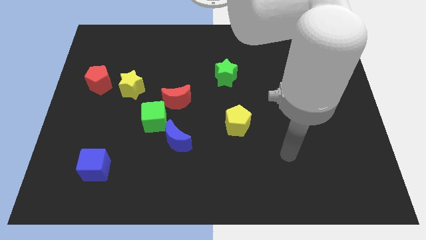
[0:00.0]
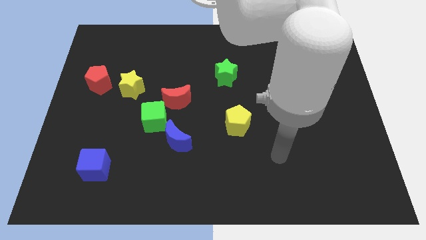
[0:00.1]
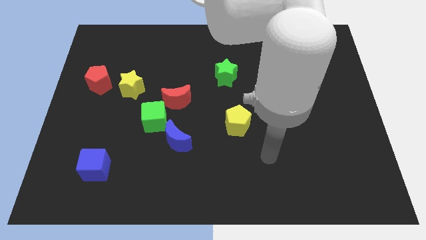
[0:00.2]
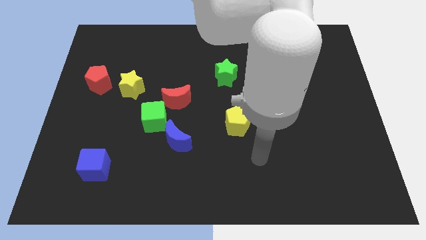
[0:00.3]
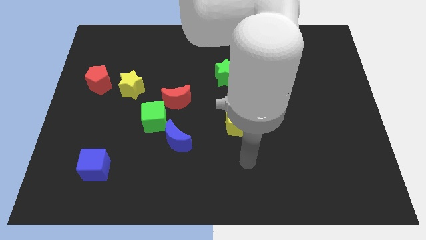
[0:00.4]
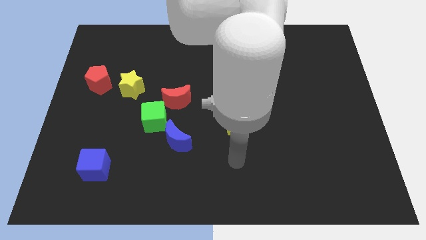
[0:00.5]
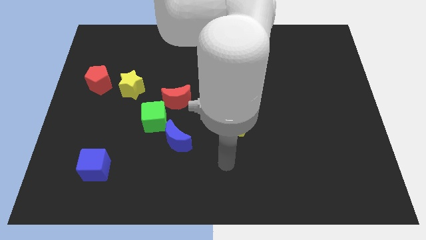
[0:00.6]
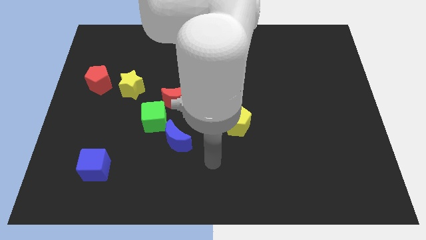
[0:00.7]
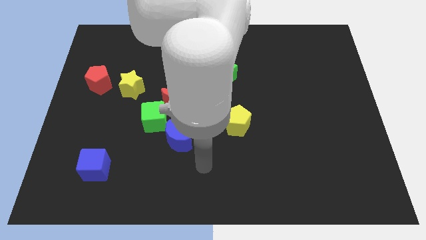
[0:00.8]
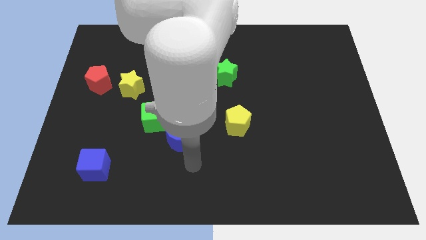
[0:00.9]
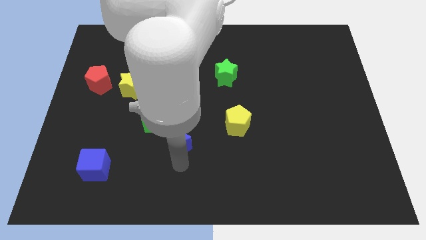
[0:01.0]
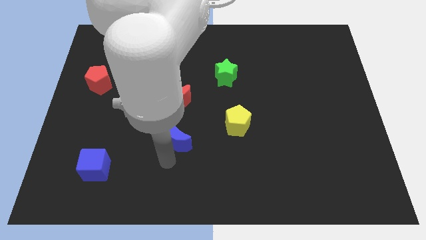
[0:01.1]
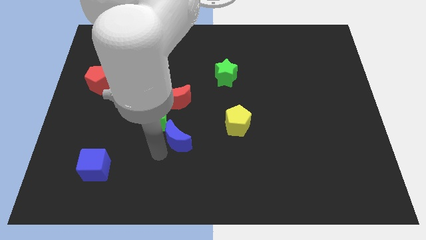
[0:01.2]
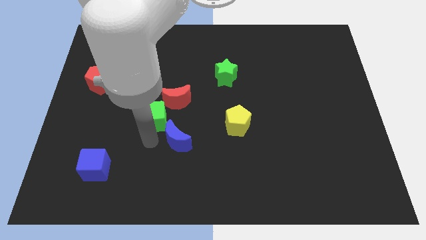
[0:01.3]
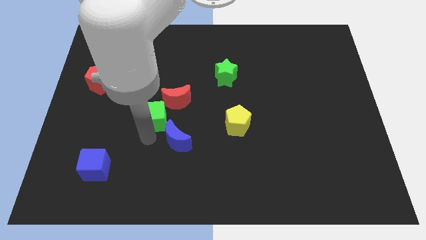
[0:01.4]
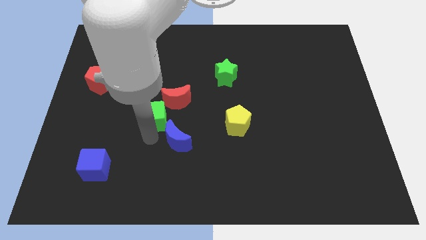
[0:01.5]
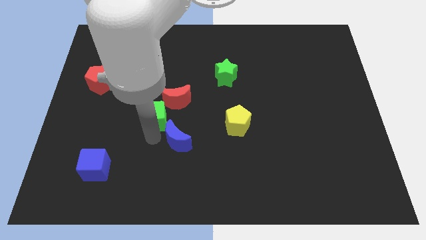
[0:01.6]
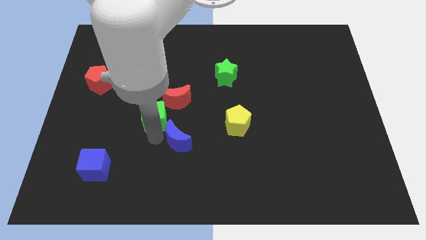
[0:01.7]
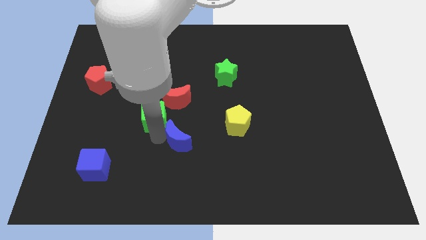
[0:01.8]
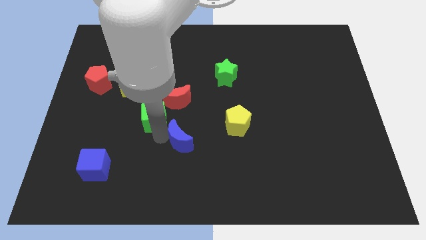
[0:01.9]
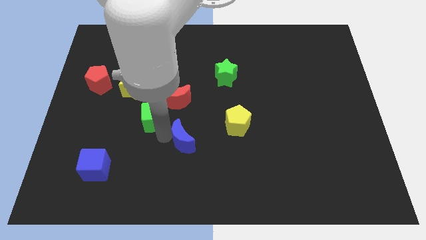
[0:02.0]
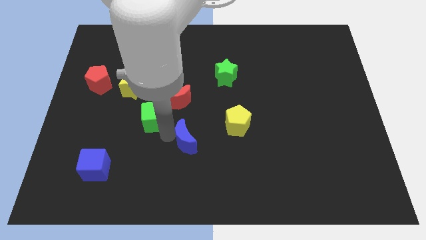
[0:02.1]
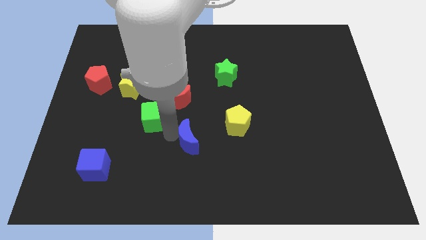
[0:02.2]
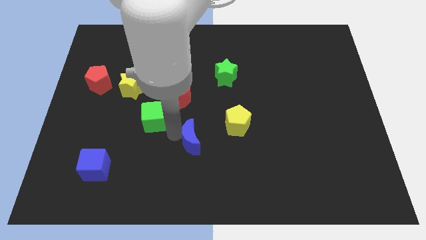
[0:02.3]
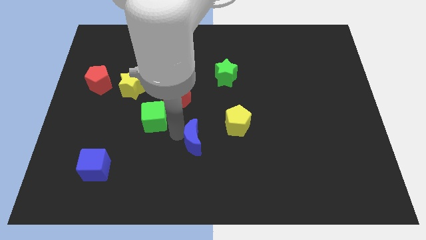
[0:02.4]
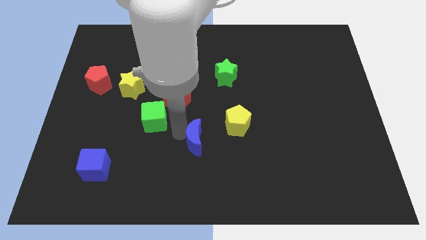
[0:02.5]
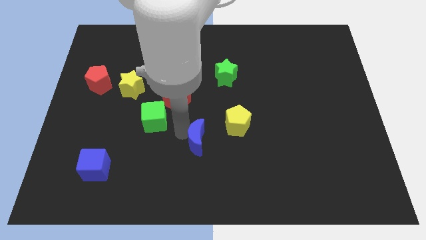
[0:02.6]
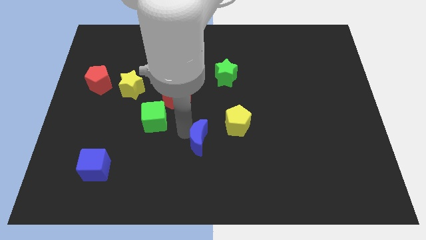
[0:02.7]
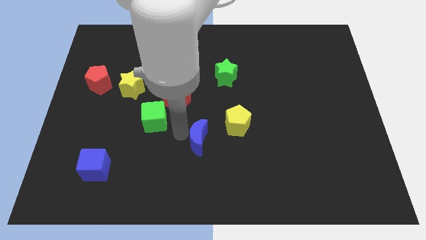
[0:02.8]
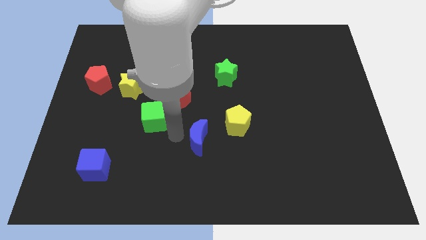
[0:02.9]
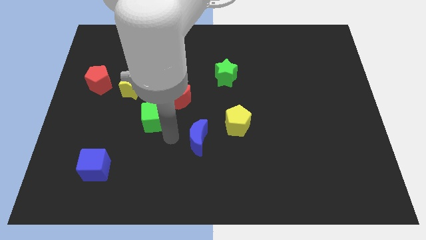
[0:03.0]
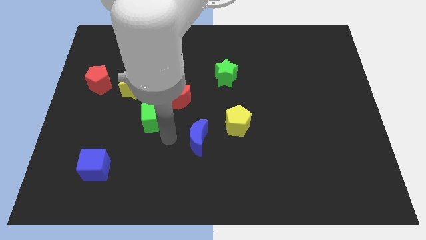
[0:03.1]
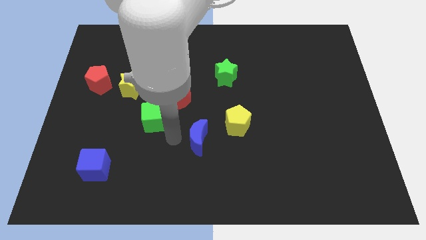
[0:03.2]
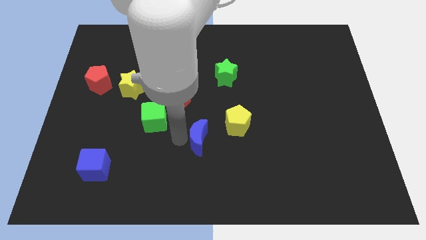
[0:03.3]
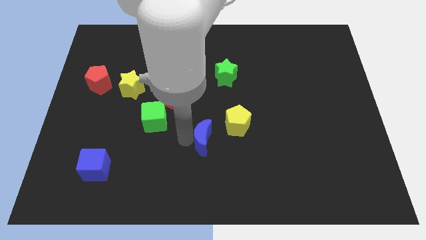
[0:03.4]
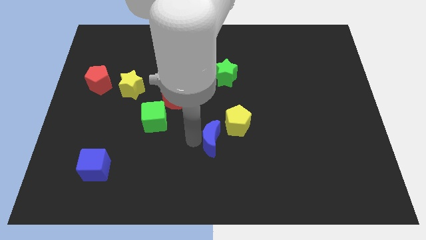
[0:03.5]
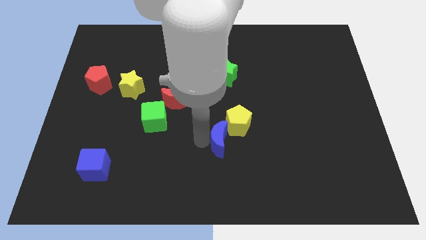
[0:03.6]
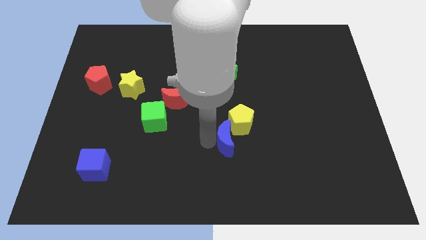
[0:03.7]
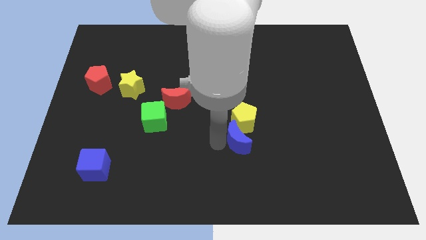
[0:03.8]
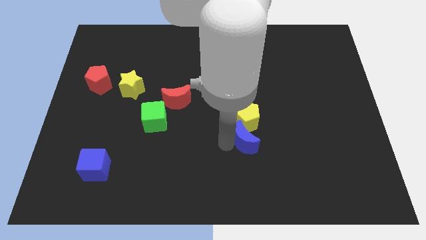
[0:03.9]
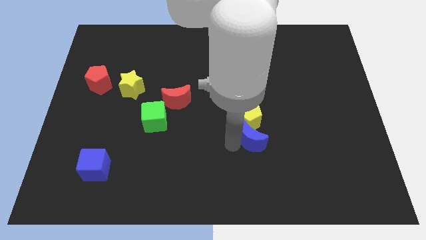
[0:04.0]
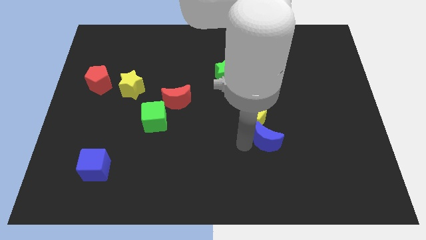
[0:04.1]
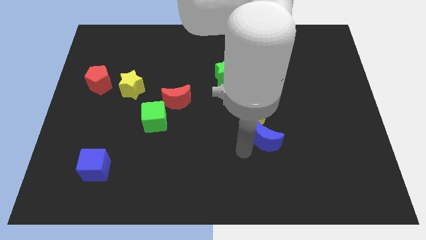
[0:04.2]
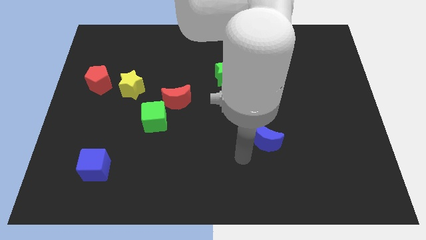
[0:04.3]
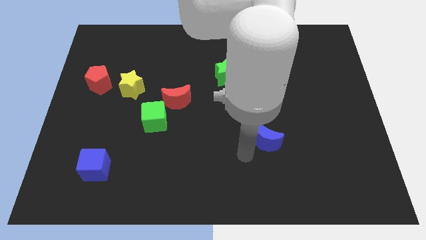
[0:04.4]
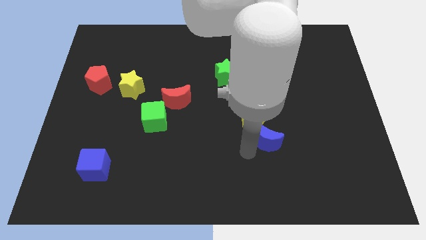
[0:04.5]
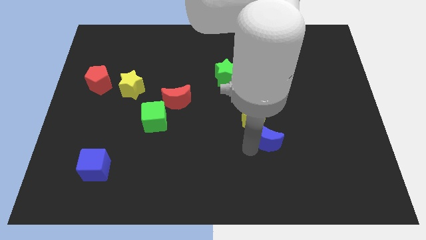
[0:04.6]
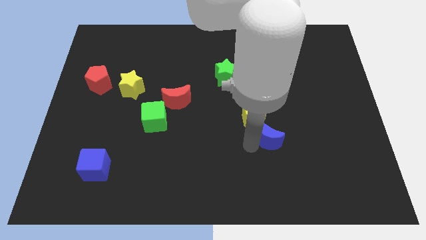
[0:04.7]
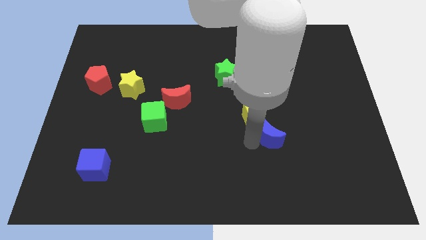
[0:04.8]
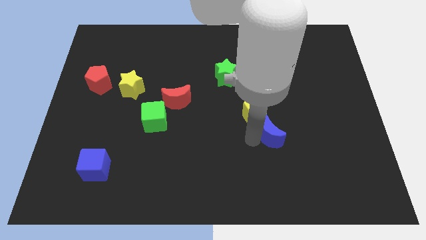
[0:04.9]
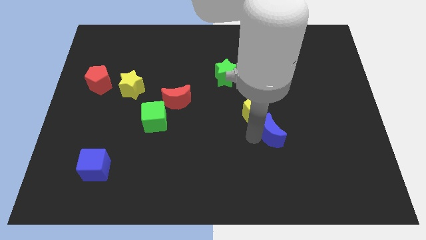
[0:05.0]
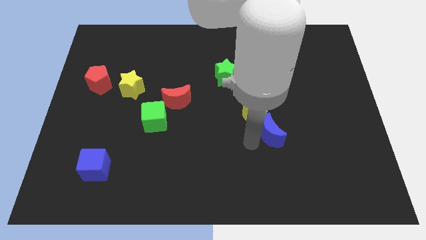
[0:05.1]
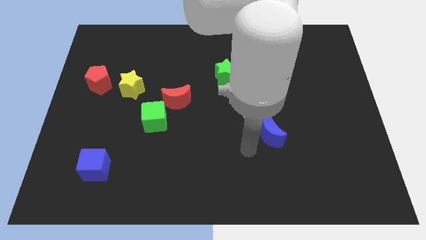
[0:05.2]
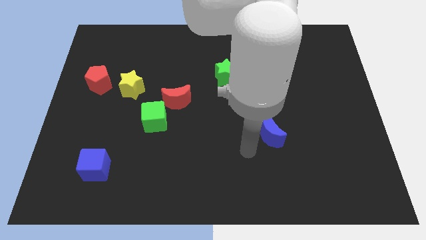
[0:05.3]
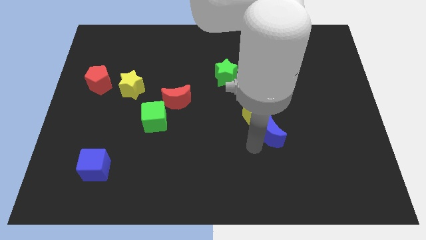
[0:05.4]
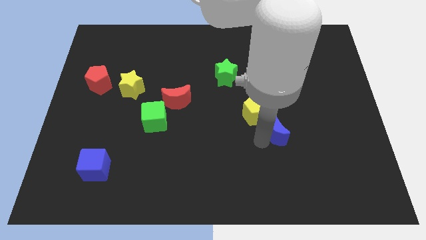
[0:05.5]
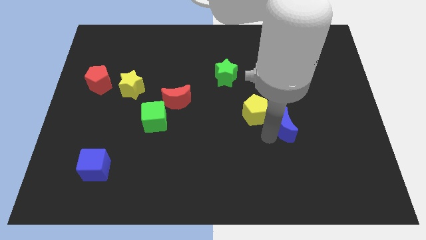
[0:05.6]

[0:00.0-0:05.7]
slide the blue moon just right of the yellow pentagon

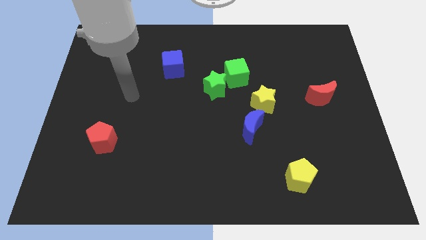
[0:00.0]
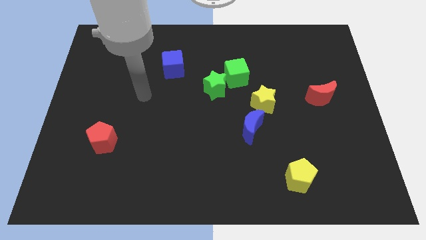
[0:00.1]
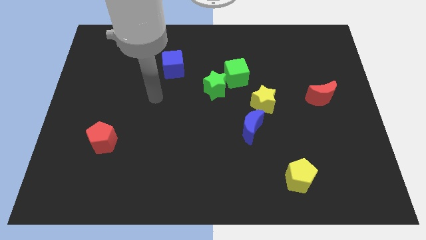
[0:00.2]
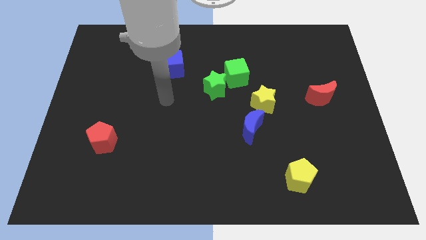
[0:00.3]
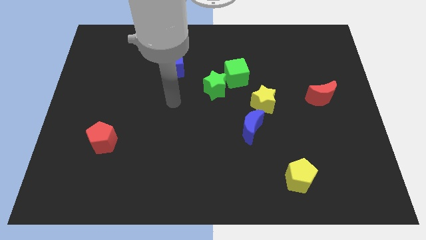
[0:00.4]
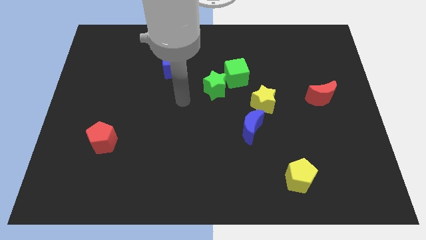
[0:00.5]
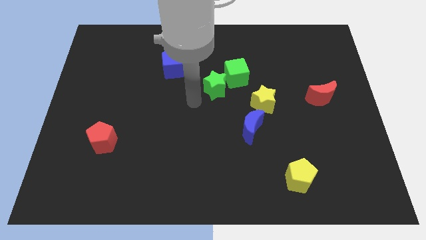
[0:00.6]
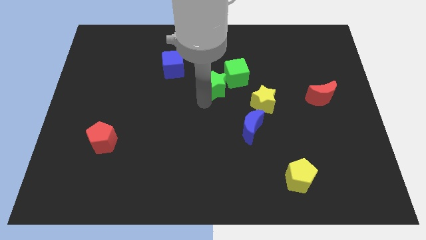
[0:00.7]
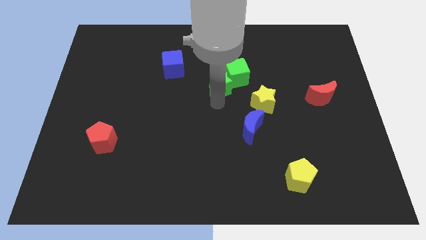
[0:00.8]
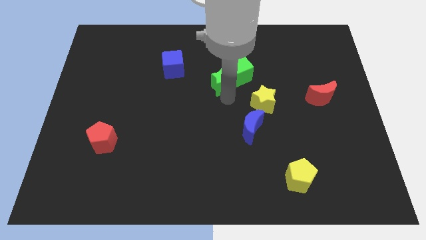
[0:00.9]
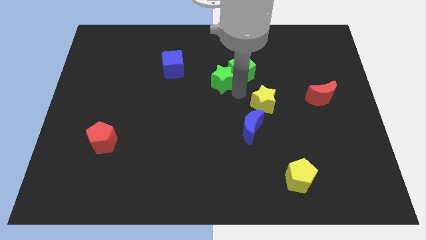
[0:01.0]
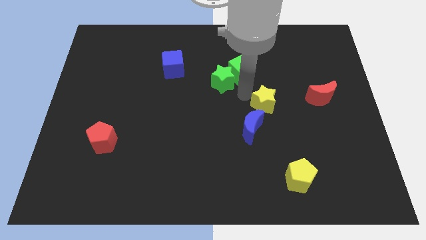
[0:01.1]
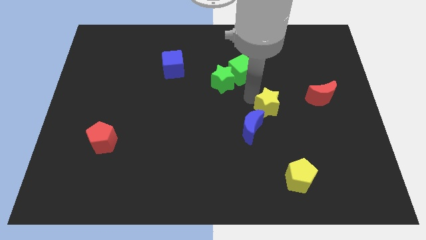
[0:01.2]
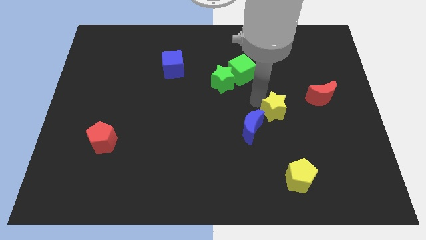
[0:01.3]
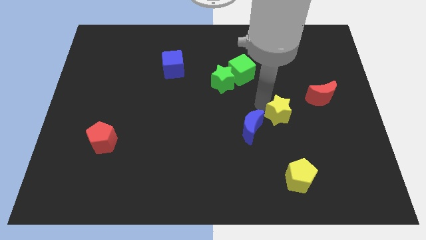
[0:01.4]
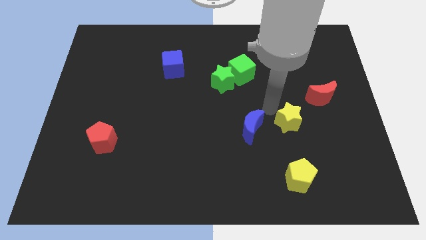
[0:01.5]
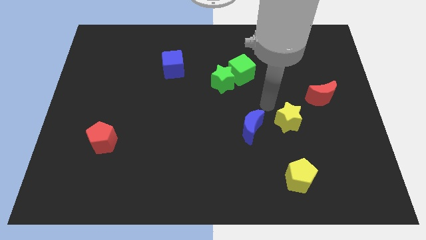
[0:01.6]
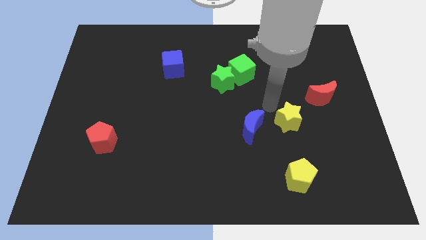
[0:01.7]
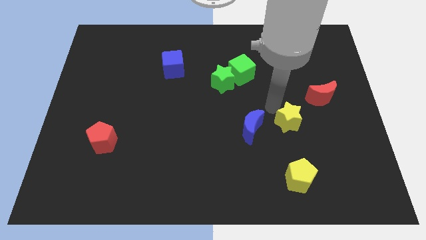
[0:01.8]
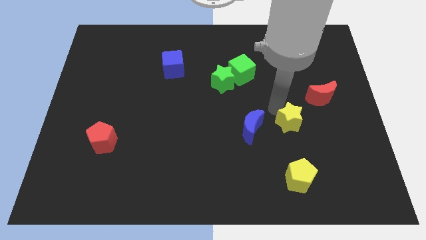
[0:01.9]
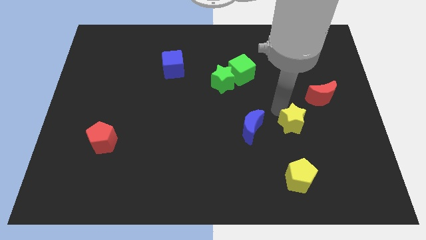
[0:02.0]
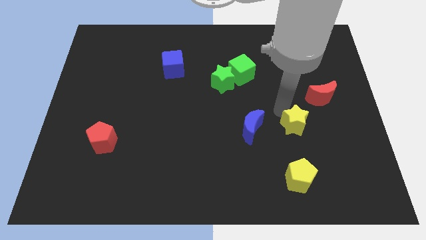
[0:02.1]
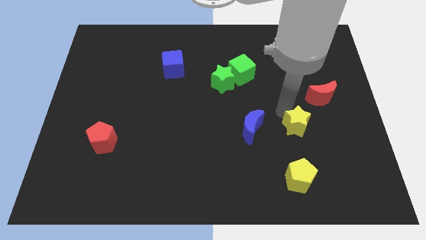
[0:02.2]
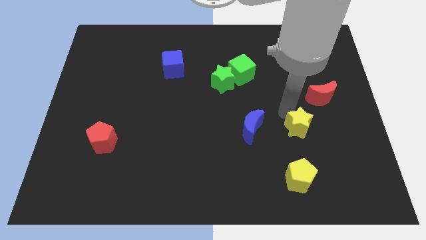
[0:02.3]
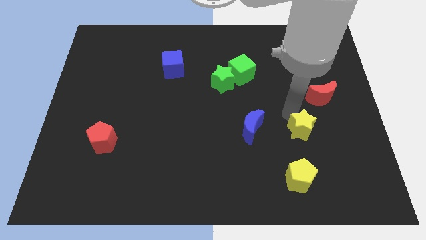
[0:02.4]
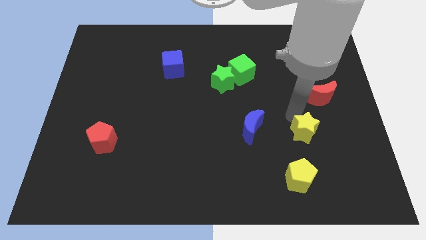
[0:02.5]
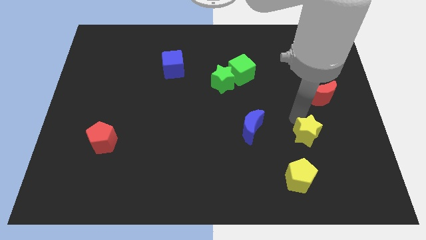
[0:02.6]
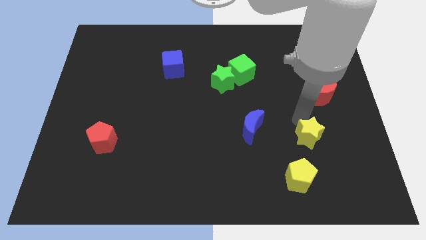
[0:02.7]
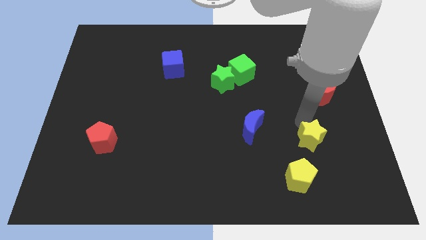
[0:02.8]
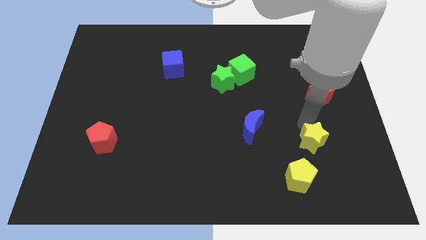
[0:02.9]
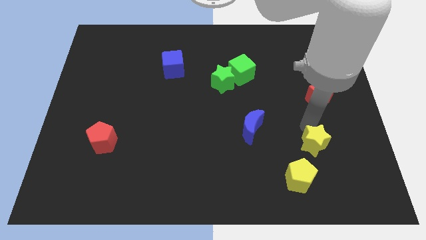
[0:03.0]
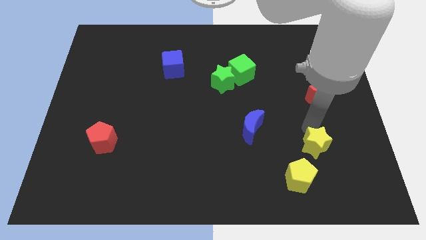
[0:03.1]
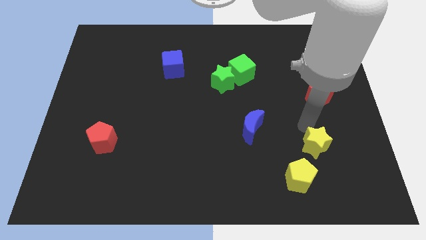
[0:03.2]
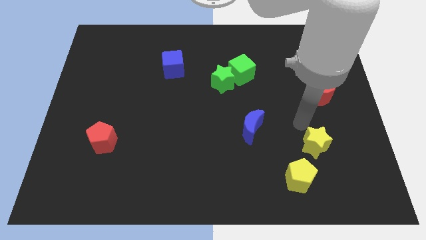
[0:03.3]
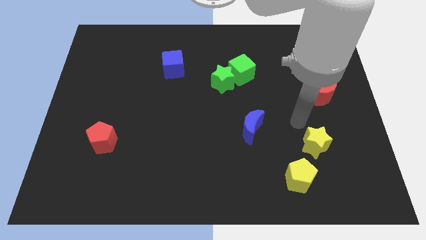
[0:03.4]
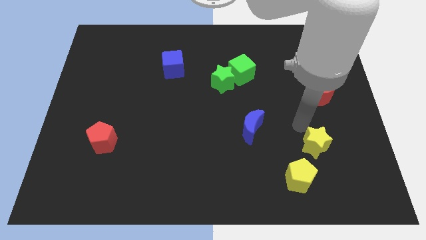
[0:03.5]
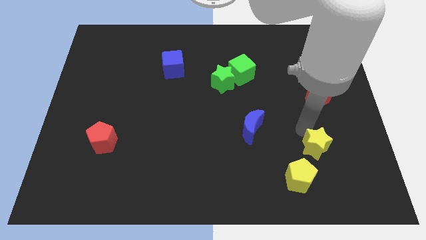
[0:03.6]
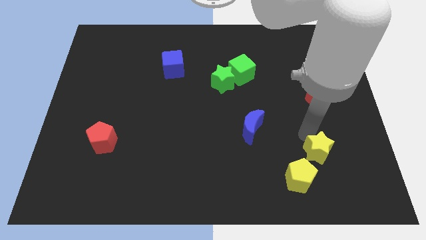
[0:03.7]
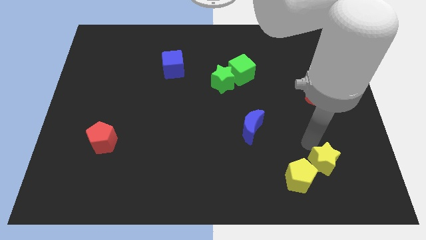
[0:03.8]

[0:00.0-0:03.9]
move the yellow star right of the yellow pentagon
